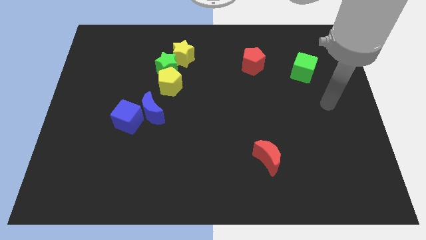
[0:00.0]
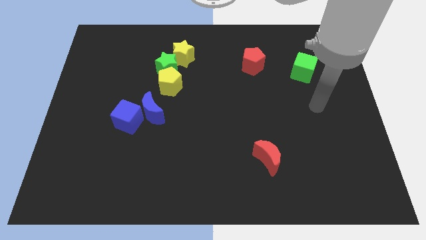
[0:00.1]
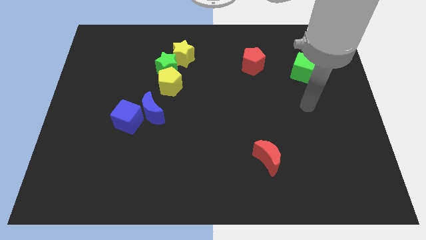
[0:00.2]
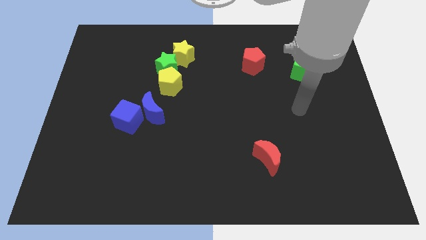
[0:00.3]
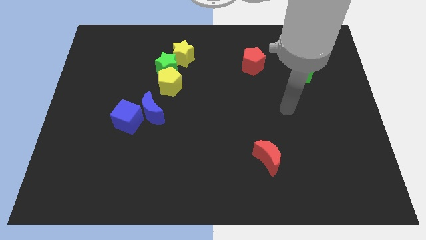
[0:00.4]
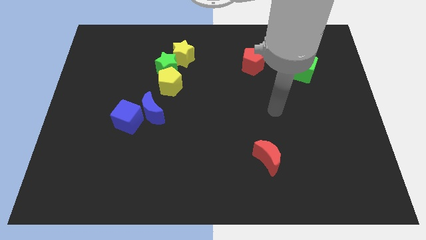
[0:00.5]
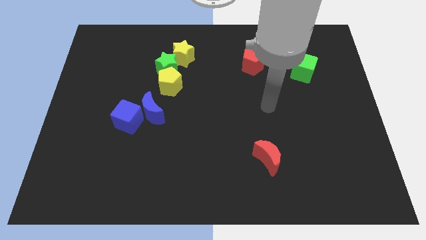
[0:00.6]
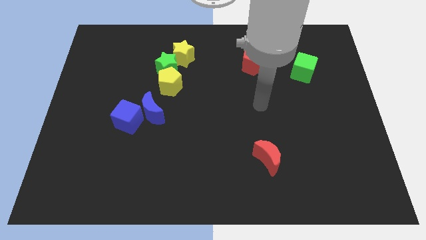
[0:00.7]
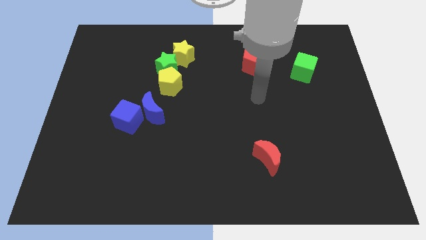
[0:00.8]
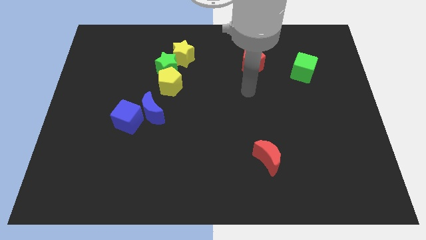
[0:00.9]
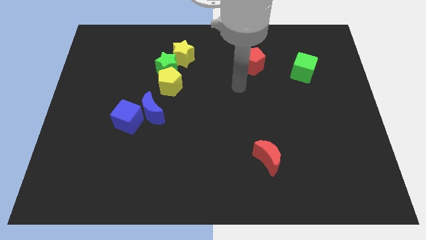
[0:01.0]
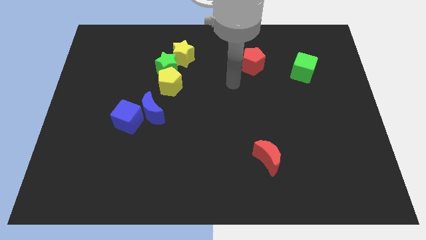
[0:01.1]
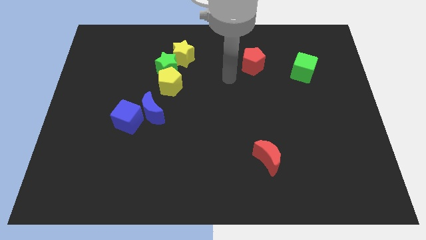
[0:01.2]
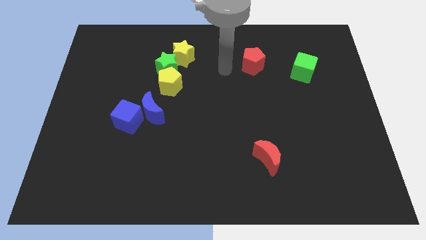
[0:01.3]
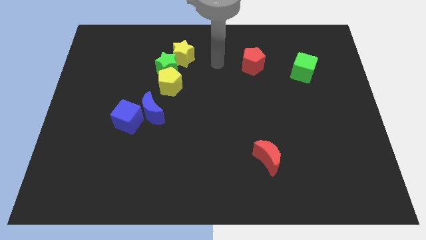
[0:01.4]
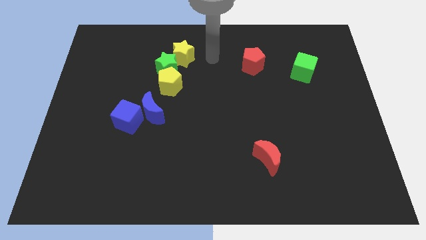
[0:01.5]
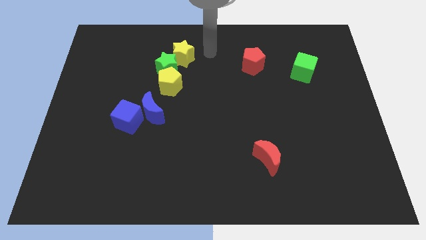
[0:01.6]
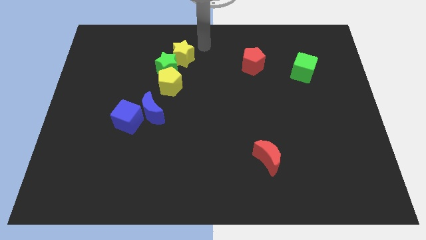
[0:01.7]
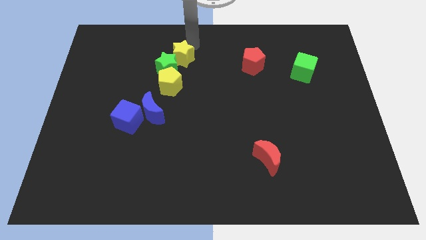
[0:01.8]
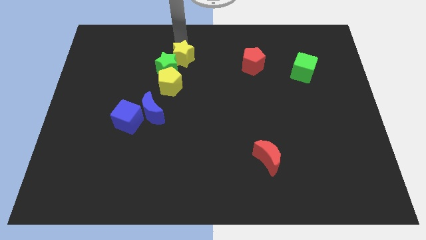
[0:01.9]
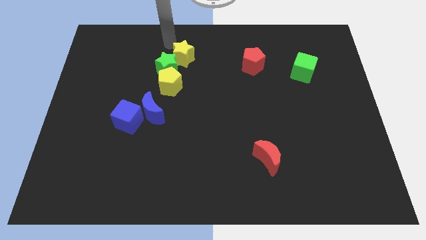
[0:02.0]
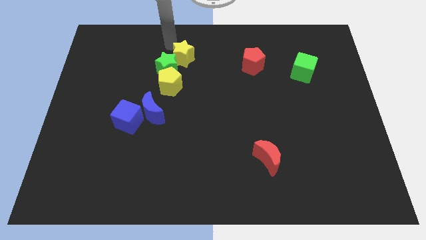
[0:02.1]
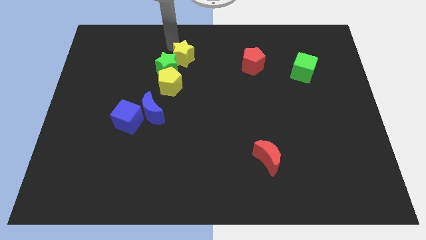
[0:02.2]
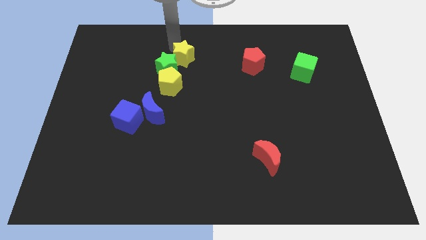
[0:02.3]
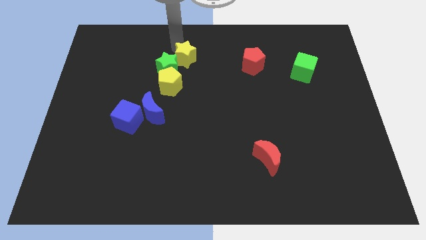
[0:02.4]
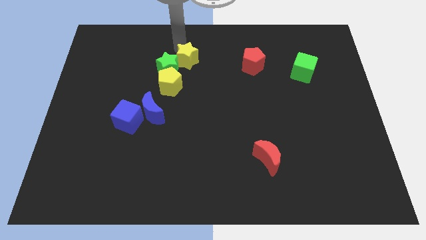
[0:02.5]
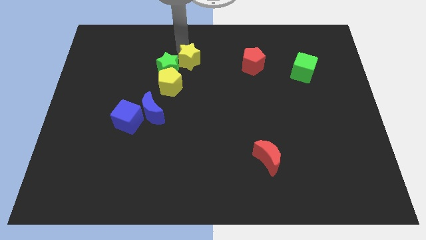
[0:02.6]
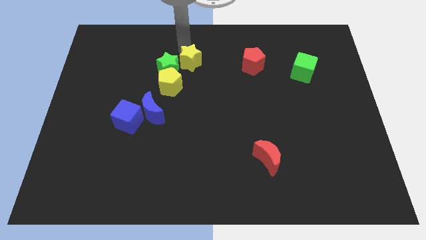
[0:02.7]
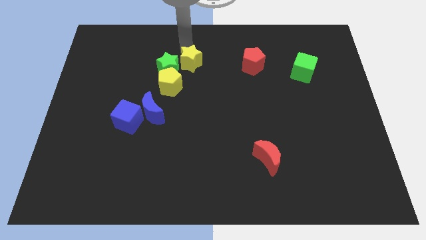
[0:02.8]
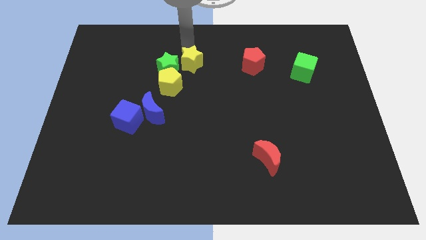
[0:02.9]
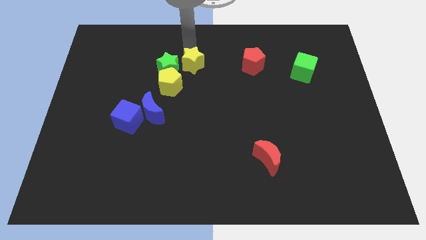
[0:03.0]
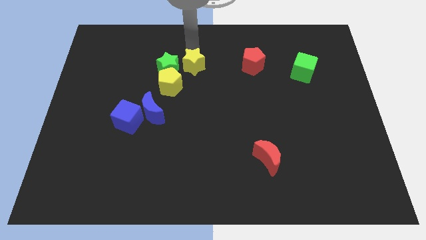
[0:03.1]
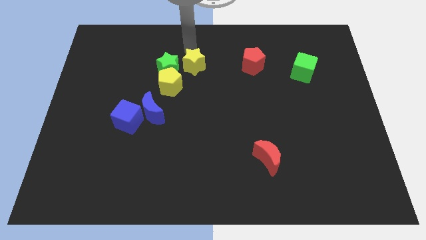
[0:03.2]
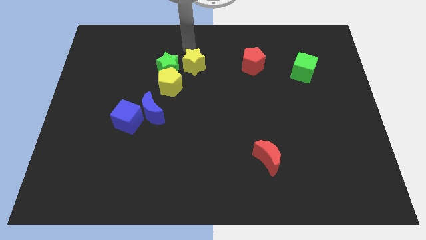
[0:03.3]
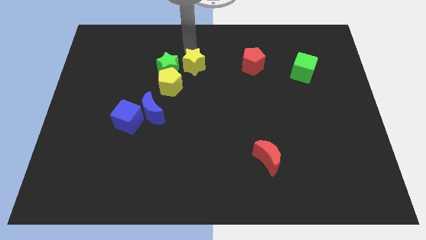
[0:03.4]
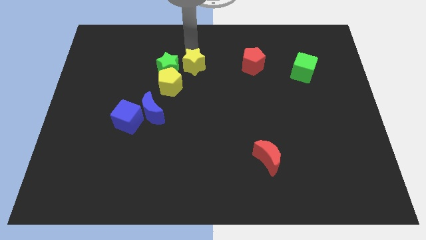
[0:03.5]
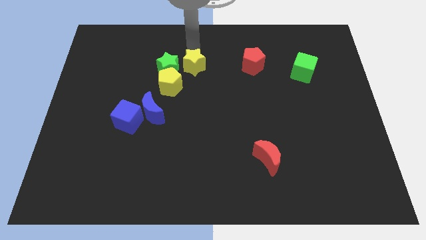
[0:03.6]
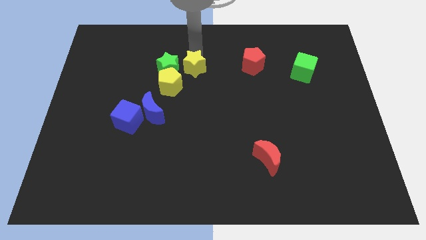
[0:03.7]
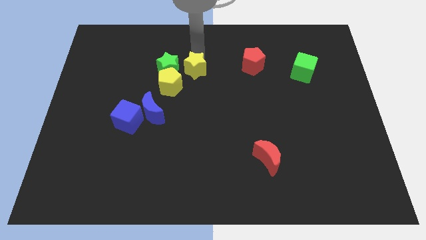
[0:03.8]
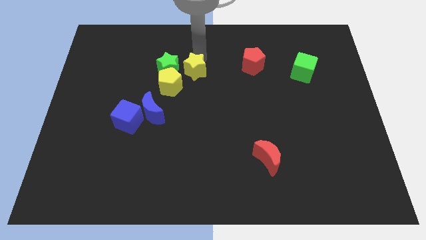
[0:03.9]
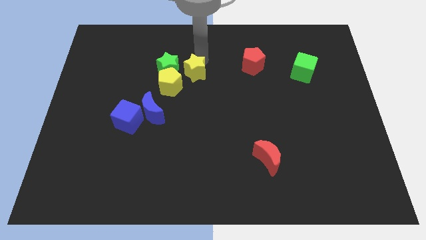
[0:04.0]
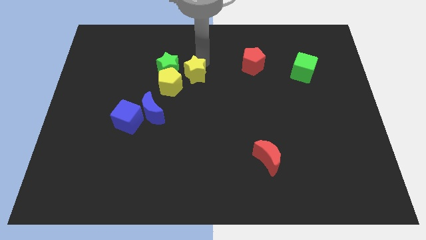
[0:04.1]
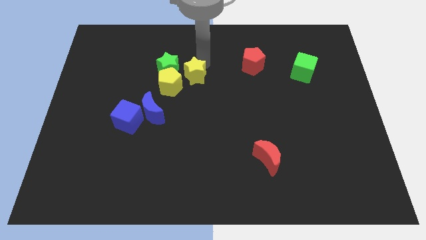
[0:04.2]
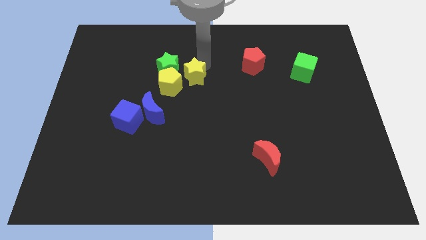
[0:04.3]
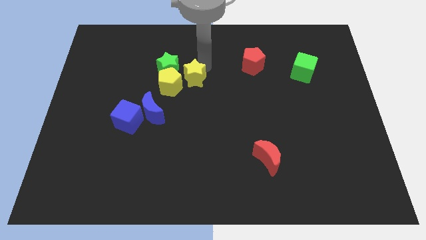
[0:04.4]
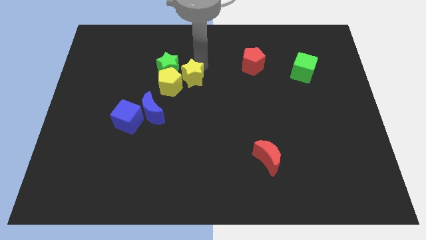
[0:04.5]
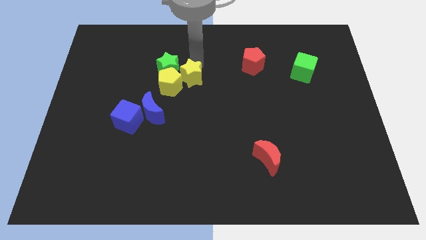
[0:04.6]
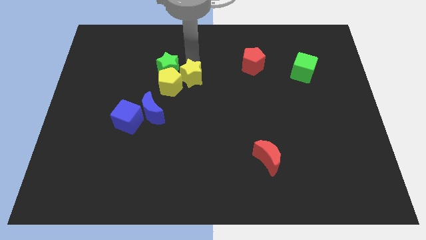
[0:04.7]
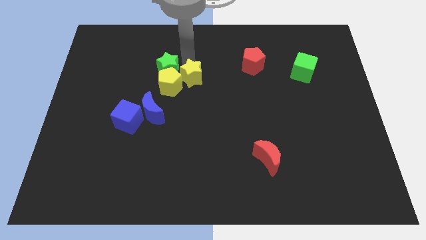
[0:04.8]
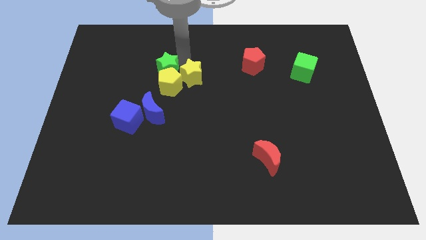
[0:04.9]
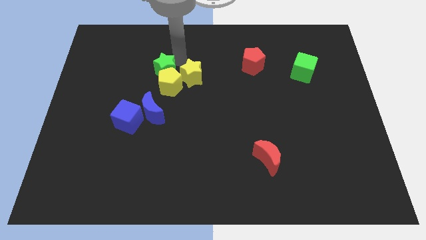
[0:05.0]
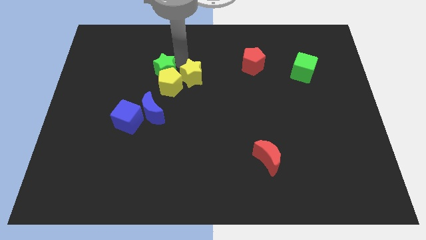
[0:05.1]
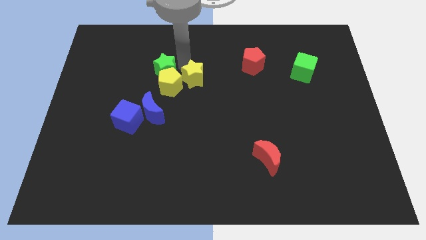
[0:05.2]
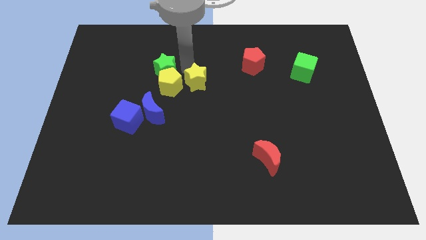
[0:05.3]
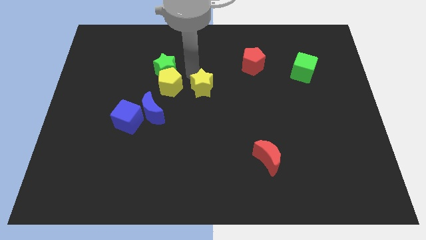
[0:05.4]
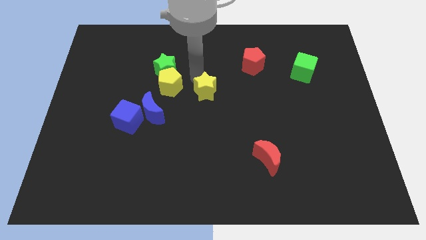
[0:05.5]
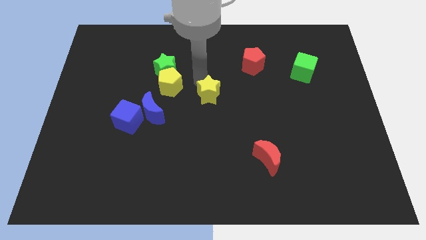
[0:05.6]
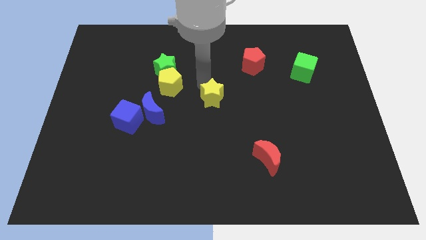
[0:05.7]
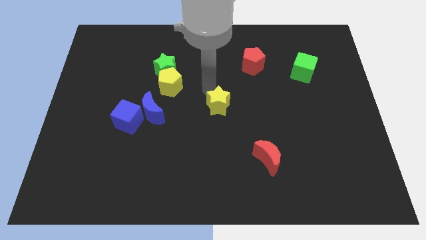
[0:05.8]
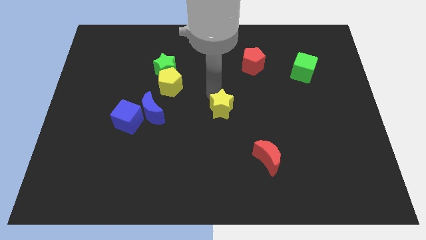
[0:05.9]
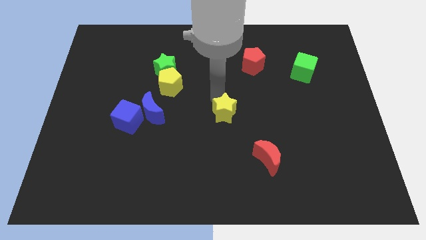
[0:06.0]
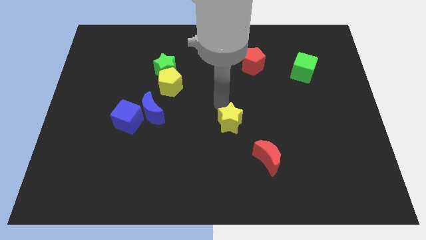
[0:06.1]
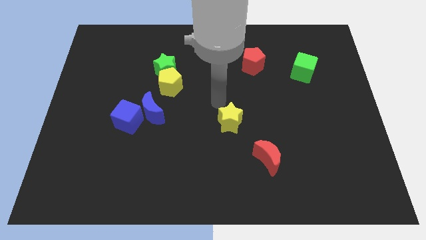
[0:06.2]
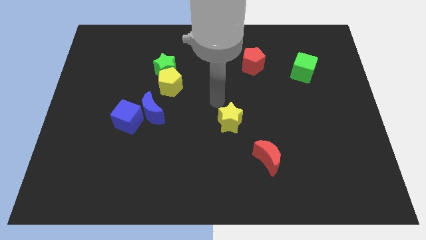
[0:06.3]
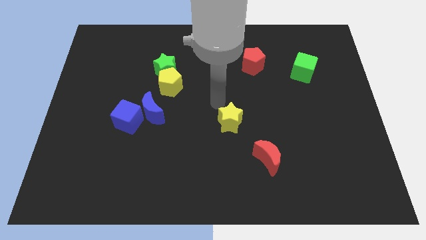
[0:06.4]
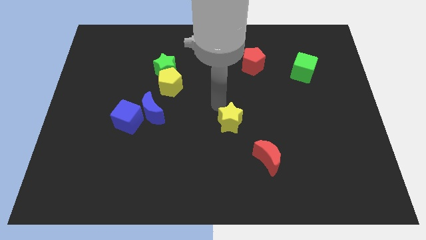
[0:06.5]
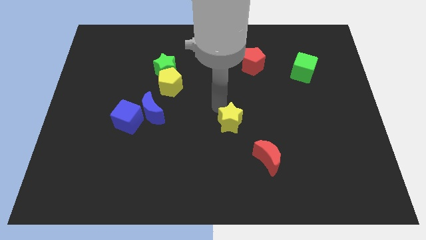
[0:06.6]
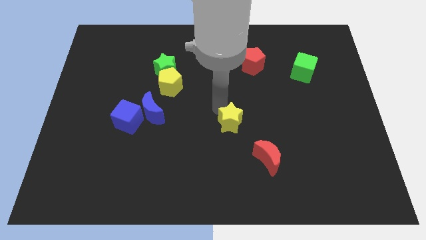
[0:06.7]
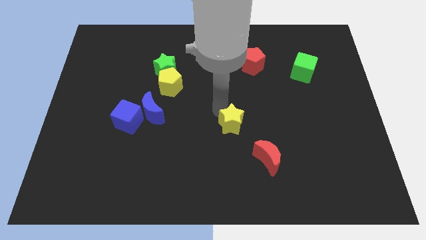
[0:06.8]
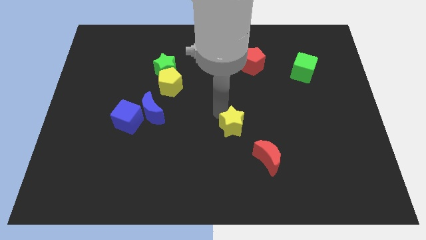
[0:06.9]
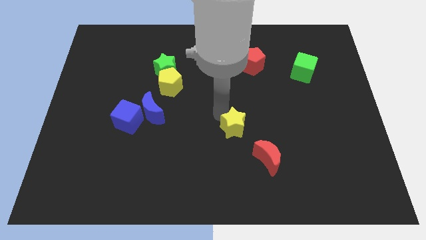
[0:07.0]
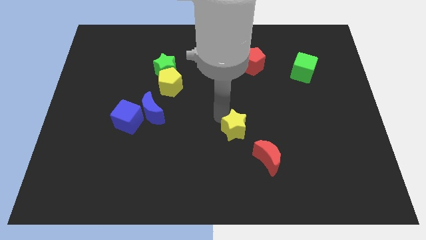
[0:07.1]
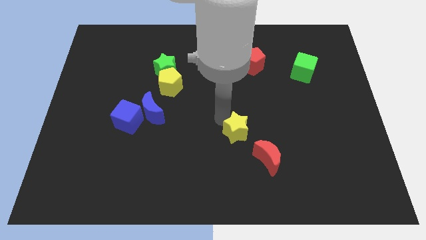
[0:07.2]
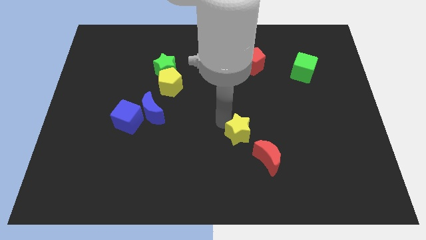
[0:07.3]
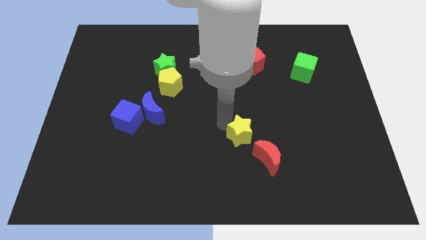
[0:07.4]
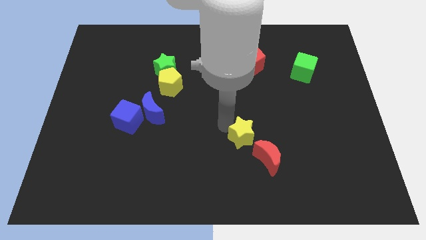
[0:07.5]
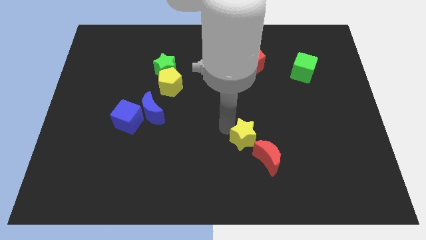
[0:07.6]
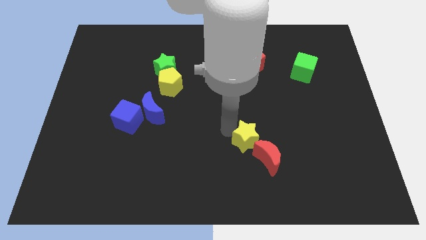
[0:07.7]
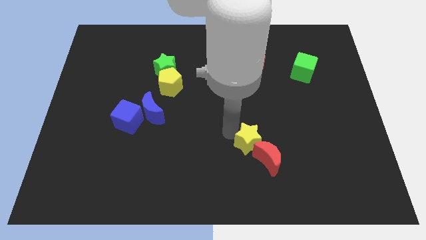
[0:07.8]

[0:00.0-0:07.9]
slide the yellow star towards the red moon
